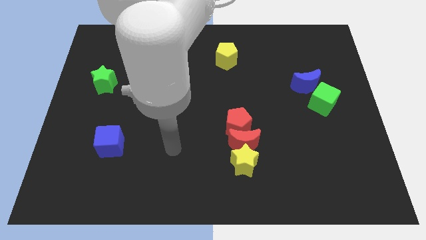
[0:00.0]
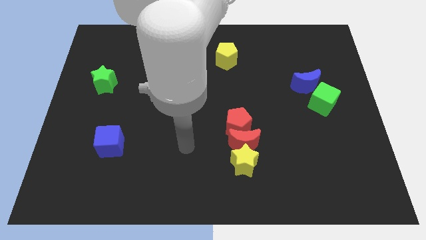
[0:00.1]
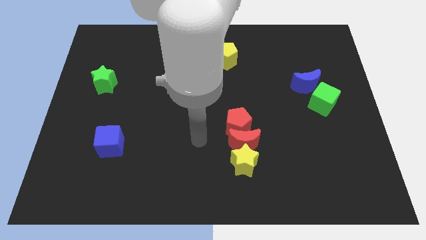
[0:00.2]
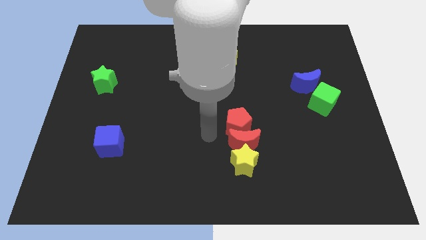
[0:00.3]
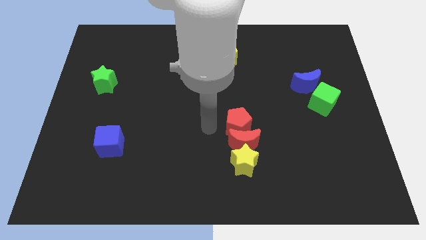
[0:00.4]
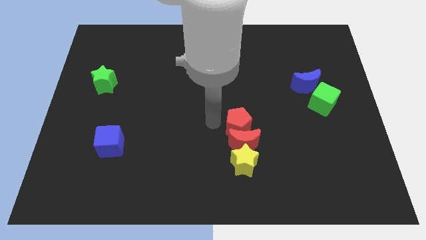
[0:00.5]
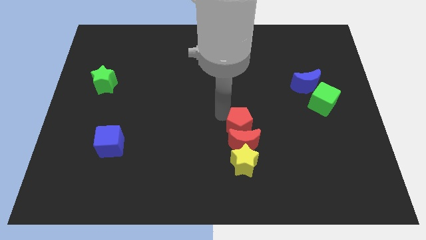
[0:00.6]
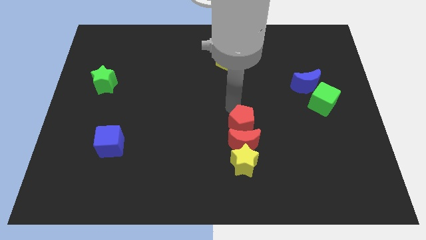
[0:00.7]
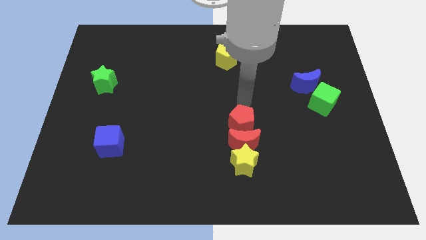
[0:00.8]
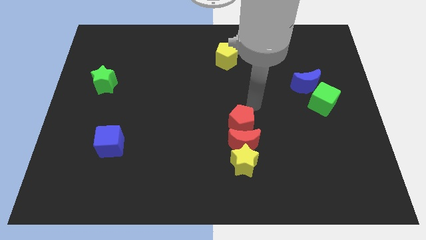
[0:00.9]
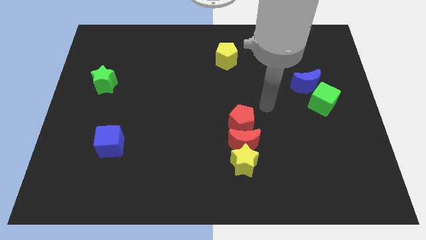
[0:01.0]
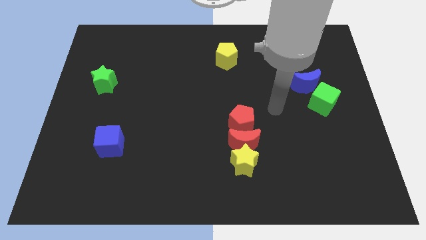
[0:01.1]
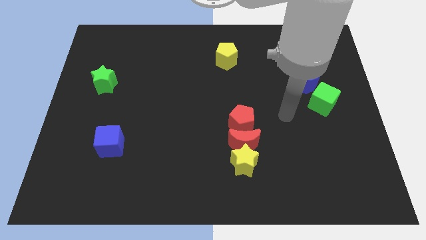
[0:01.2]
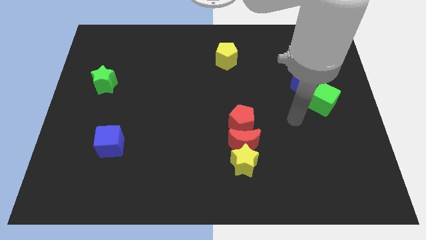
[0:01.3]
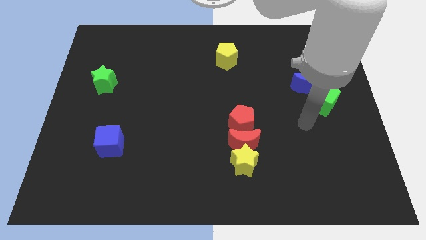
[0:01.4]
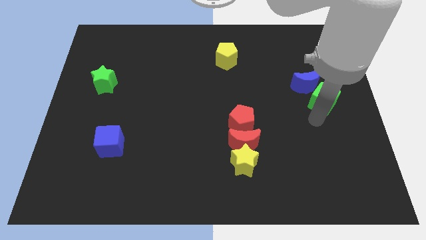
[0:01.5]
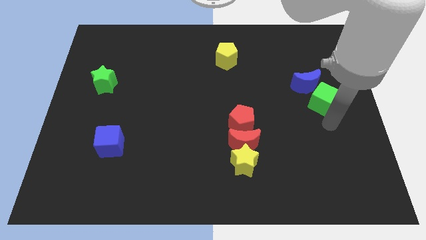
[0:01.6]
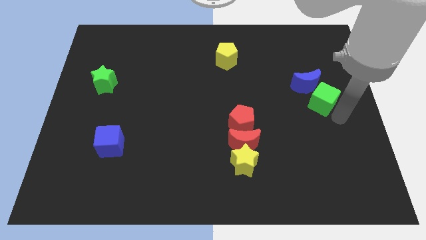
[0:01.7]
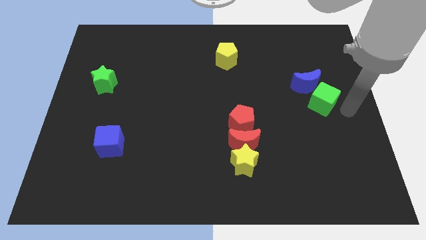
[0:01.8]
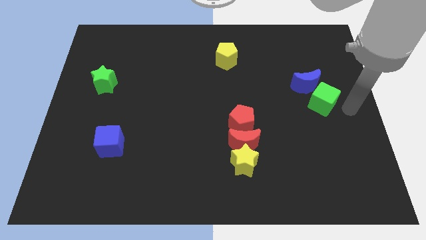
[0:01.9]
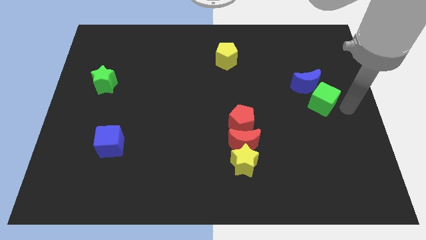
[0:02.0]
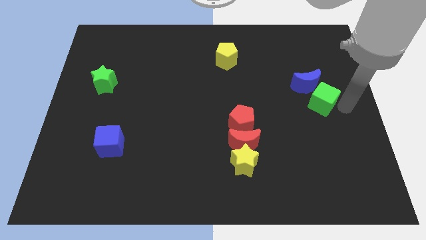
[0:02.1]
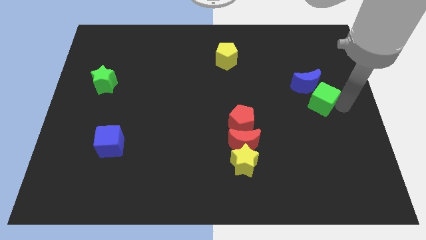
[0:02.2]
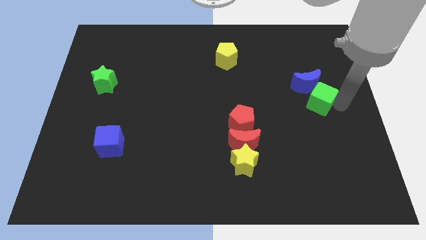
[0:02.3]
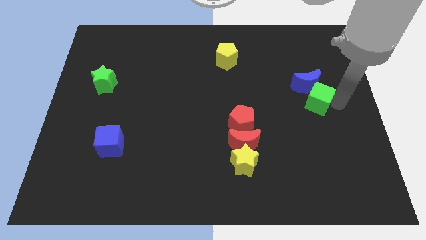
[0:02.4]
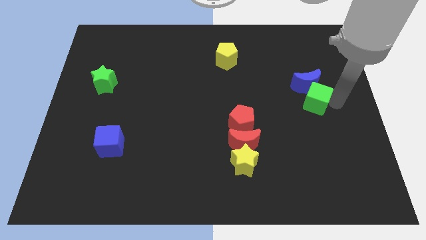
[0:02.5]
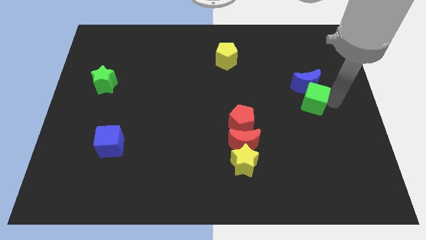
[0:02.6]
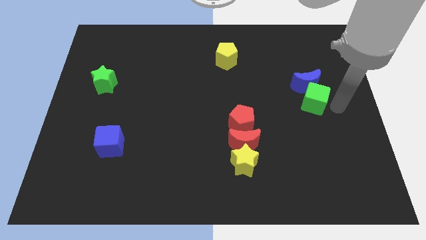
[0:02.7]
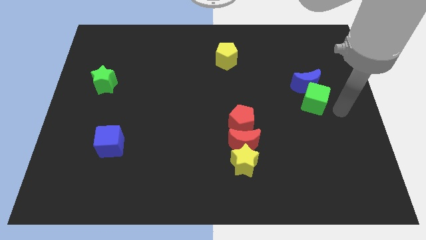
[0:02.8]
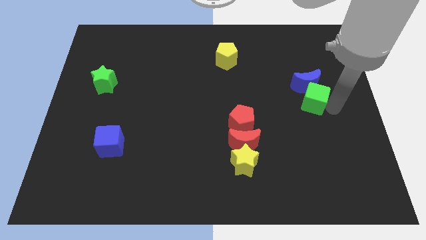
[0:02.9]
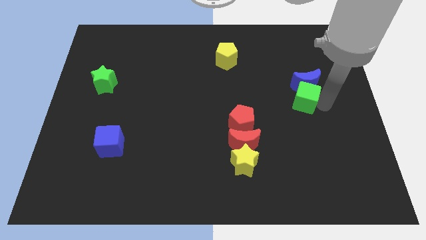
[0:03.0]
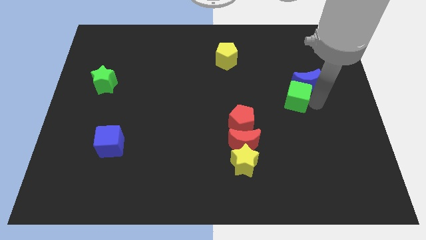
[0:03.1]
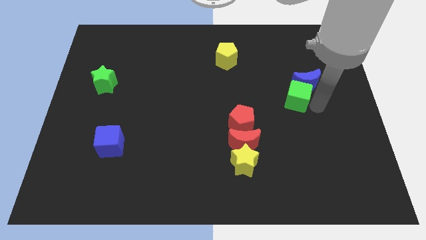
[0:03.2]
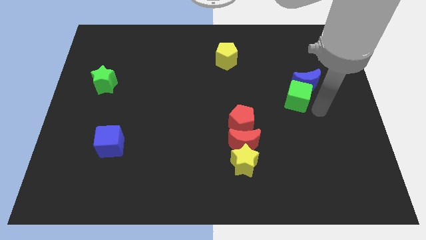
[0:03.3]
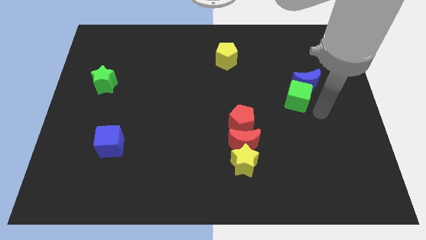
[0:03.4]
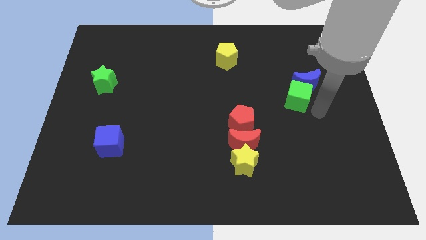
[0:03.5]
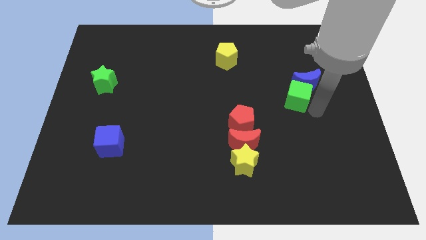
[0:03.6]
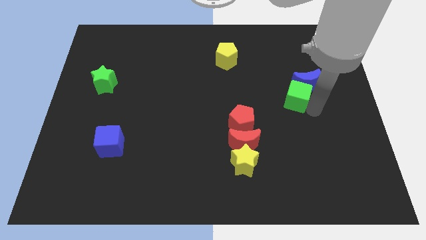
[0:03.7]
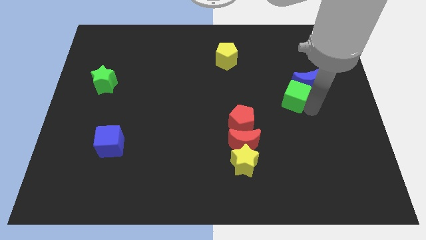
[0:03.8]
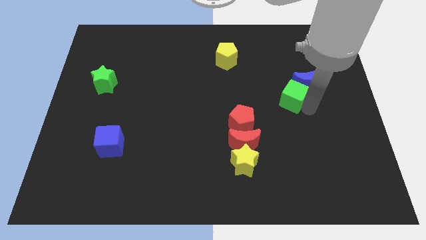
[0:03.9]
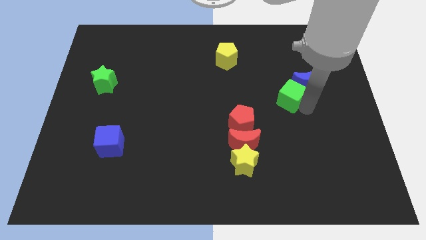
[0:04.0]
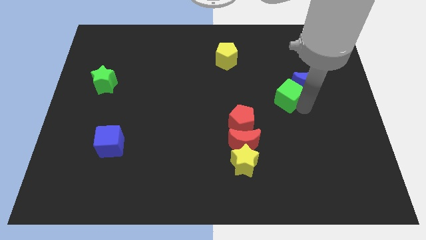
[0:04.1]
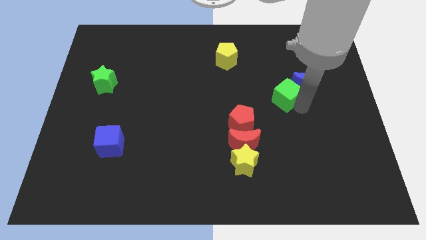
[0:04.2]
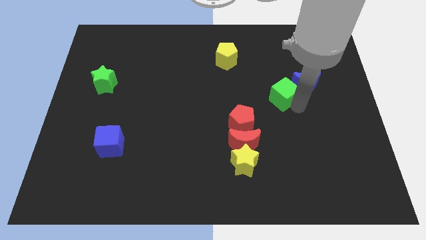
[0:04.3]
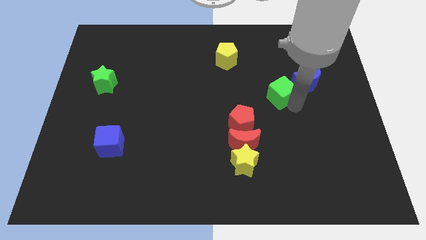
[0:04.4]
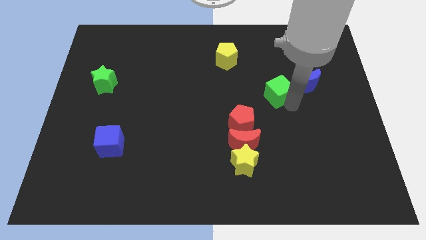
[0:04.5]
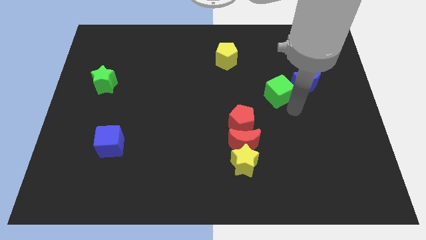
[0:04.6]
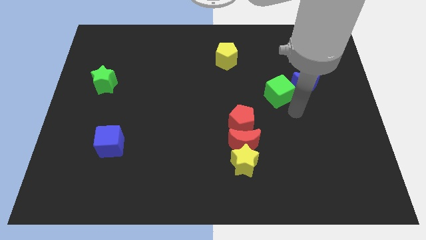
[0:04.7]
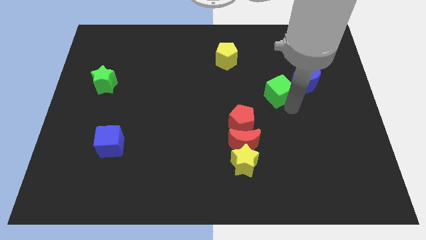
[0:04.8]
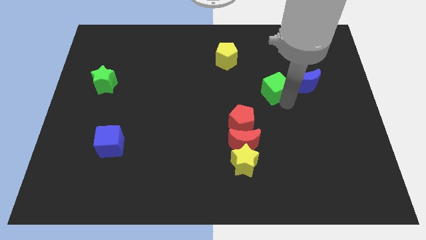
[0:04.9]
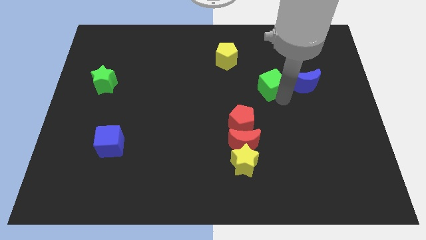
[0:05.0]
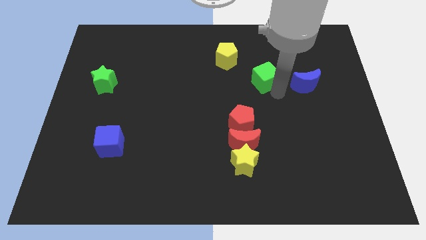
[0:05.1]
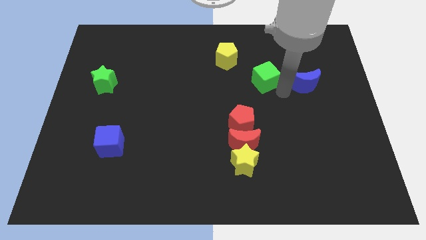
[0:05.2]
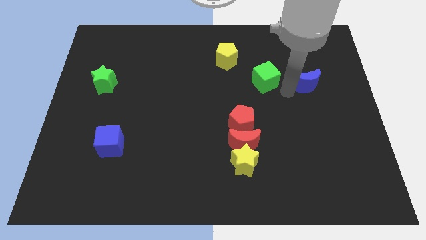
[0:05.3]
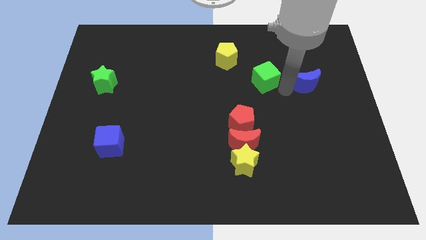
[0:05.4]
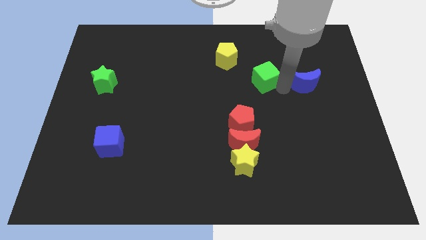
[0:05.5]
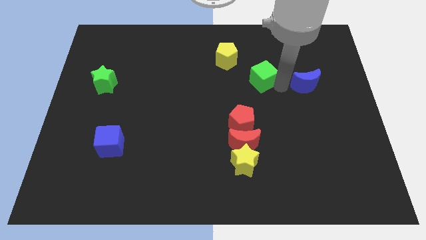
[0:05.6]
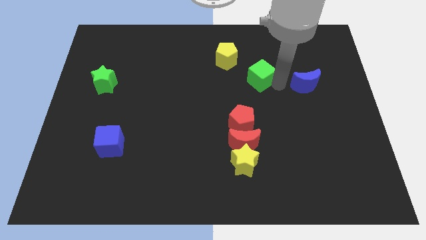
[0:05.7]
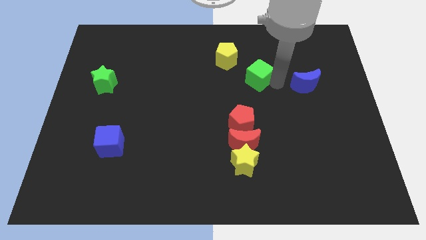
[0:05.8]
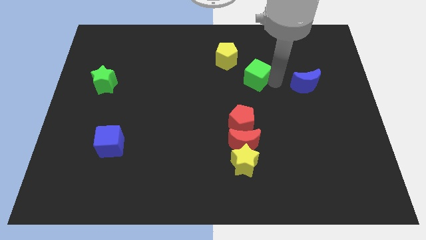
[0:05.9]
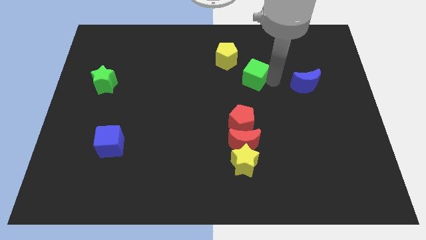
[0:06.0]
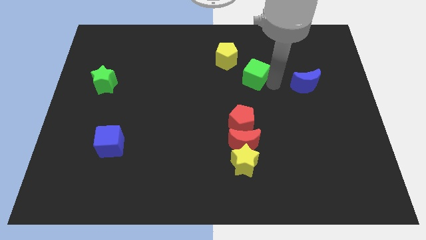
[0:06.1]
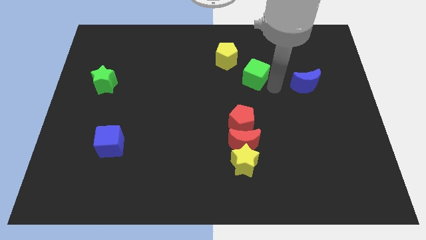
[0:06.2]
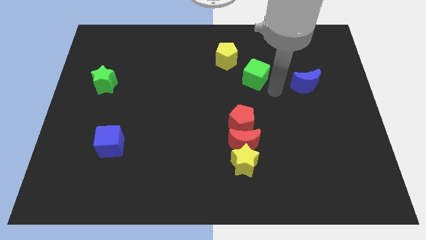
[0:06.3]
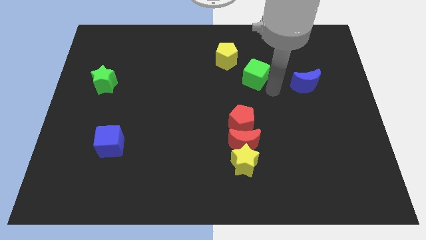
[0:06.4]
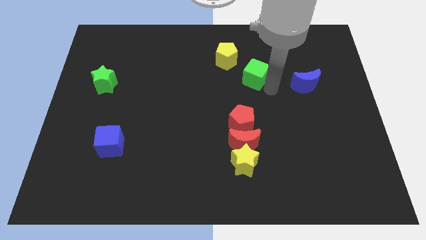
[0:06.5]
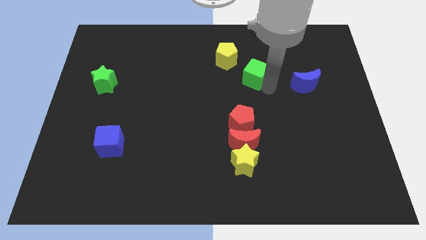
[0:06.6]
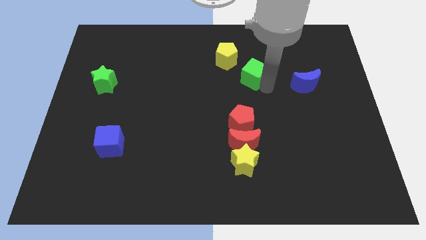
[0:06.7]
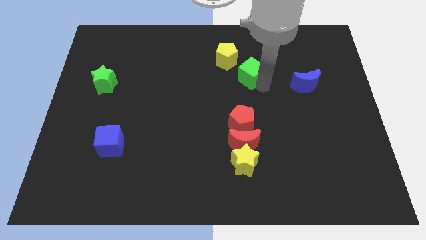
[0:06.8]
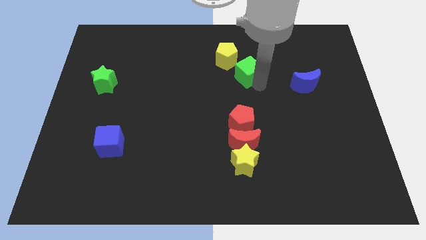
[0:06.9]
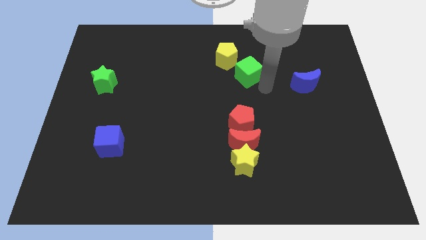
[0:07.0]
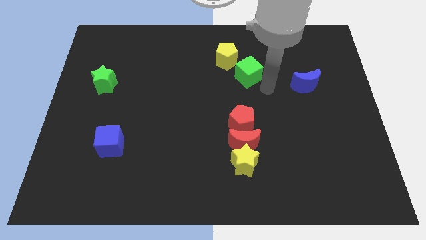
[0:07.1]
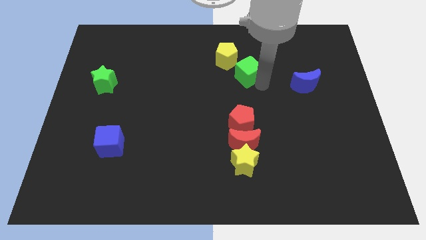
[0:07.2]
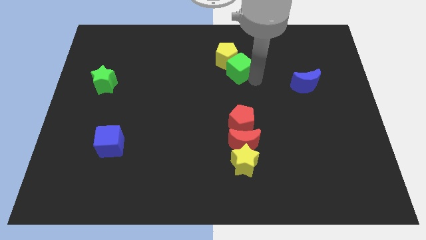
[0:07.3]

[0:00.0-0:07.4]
move the green cube to the yellow pentagon

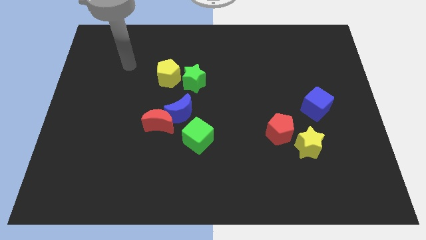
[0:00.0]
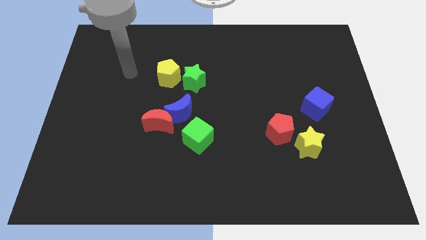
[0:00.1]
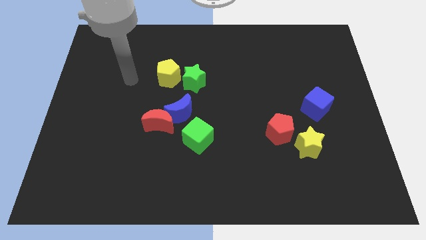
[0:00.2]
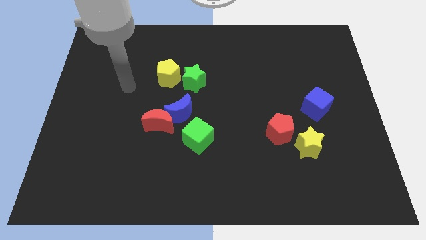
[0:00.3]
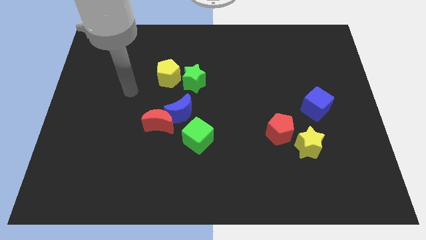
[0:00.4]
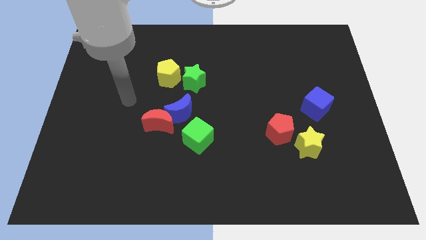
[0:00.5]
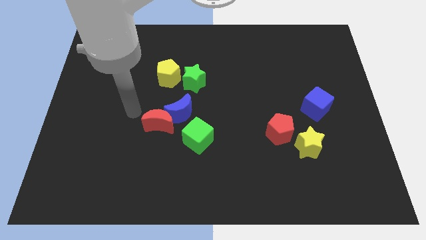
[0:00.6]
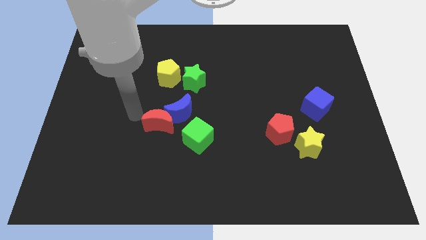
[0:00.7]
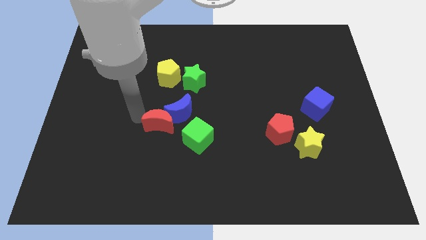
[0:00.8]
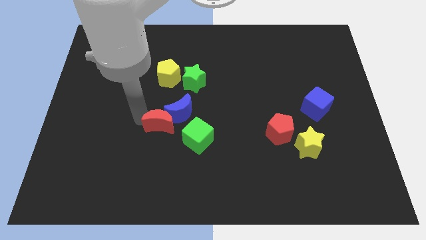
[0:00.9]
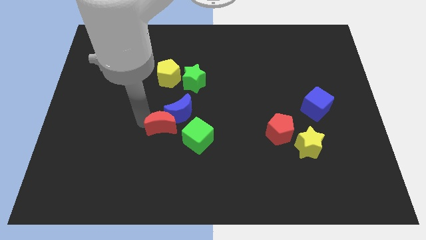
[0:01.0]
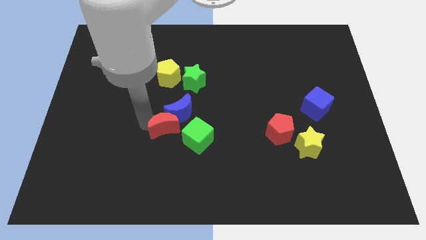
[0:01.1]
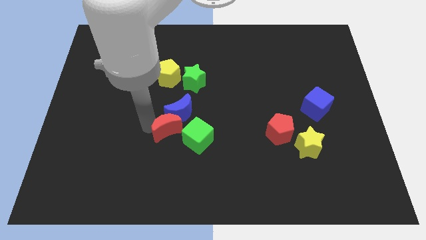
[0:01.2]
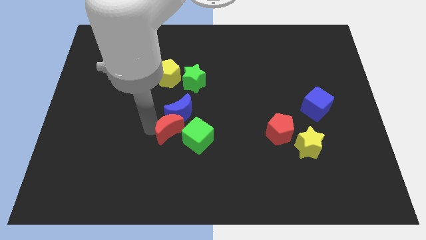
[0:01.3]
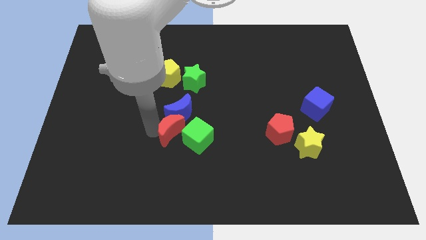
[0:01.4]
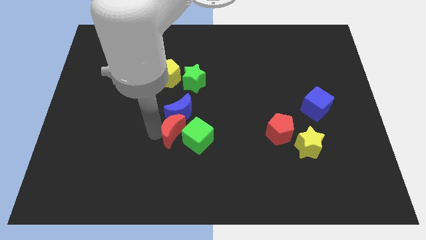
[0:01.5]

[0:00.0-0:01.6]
slide the red moon to the green cube
